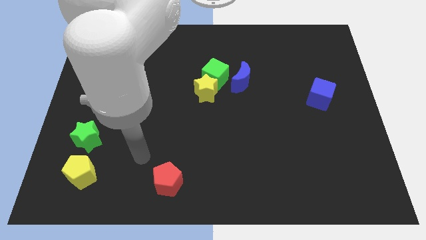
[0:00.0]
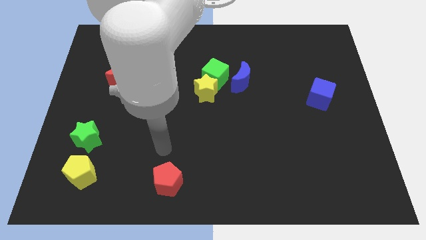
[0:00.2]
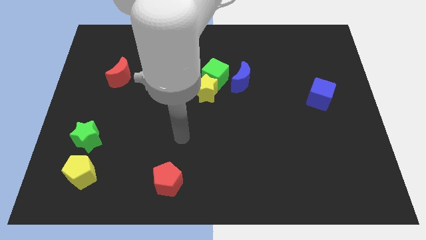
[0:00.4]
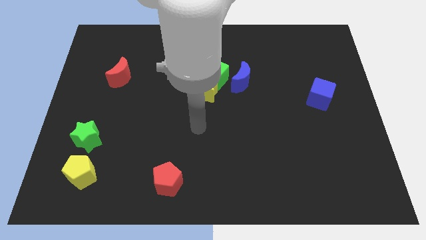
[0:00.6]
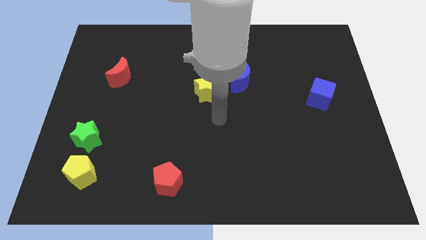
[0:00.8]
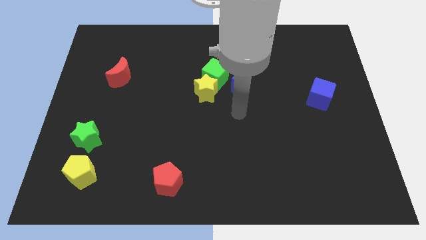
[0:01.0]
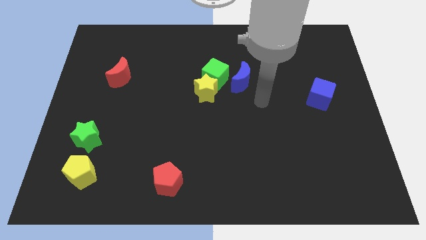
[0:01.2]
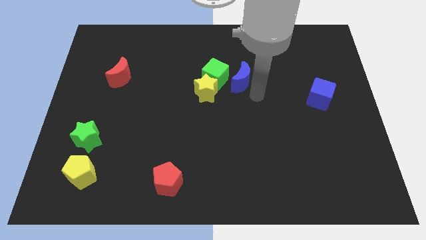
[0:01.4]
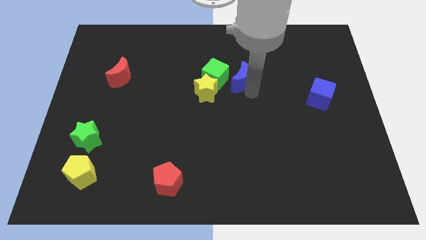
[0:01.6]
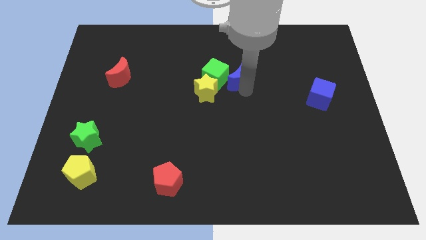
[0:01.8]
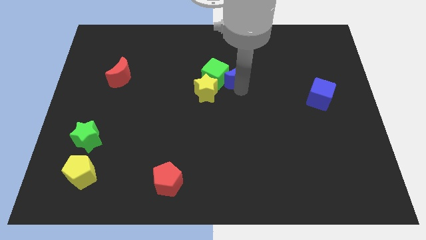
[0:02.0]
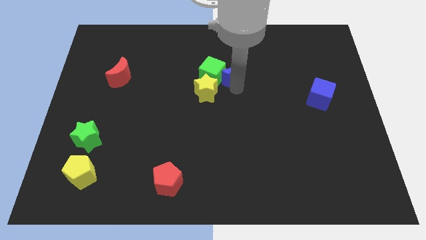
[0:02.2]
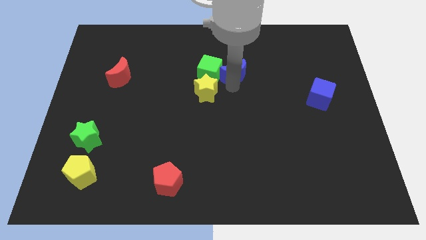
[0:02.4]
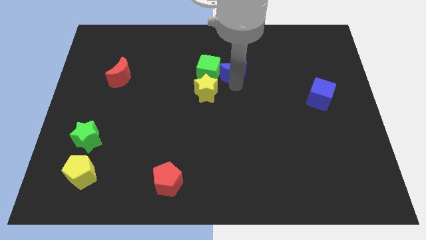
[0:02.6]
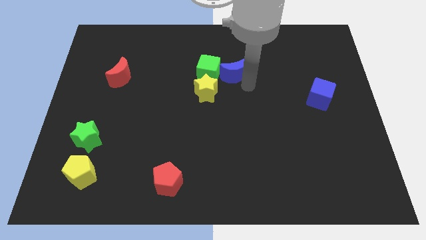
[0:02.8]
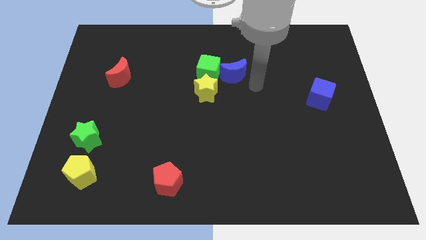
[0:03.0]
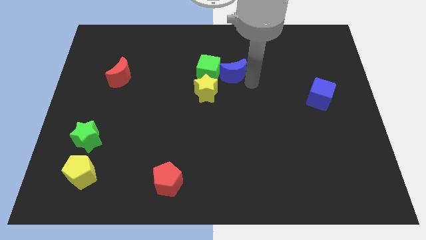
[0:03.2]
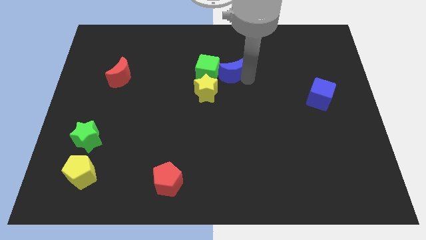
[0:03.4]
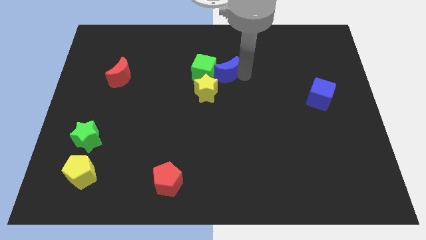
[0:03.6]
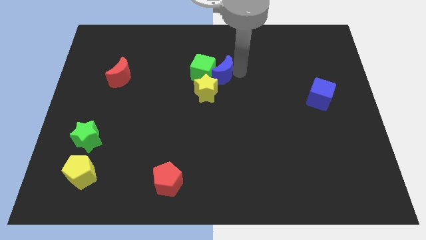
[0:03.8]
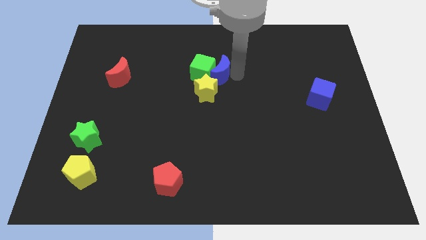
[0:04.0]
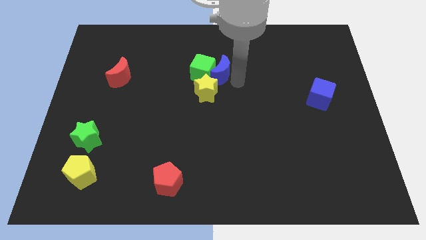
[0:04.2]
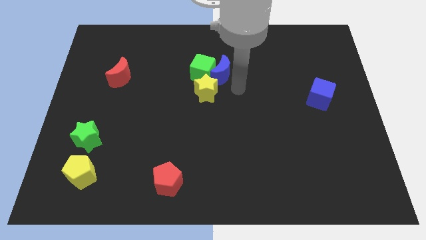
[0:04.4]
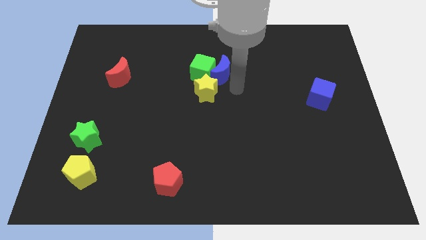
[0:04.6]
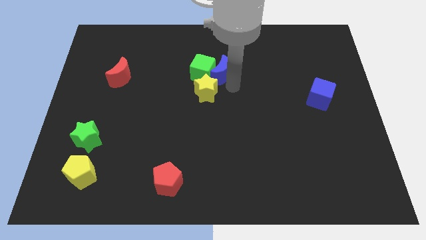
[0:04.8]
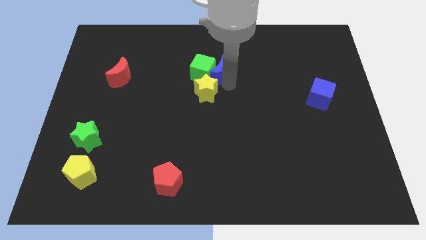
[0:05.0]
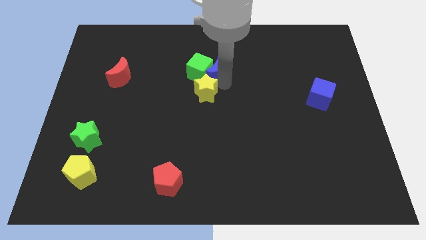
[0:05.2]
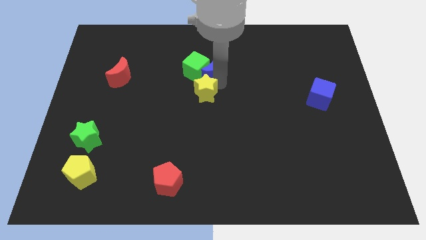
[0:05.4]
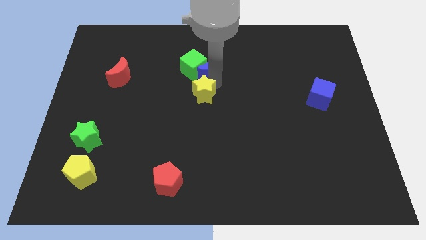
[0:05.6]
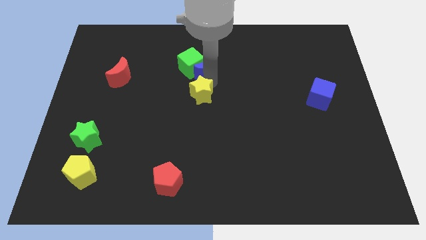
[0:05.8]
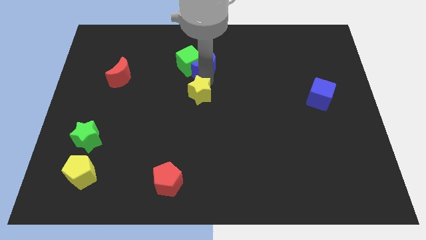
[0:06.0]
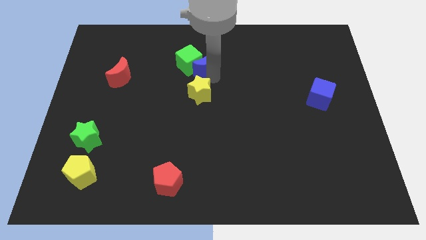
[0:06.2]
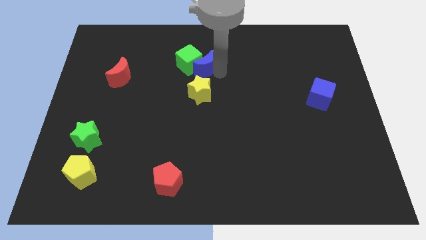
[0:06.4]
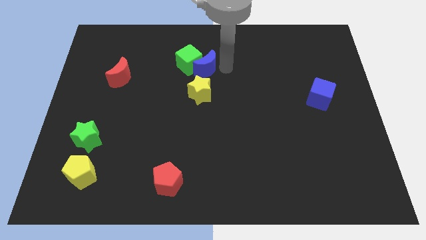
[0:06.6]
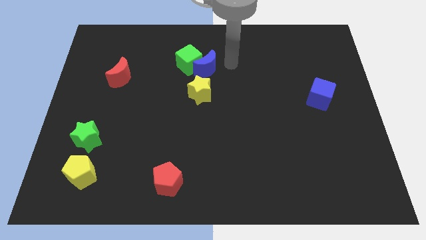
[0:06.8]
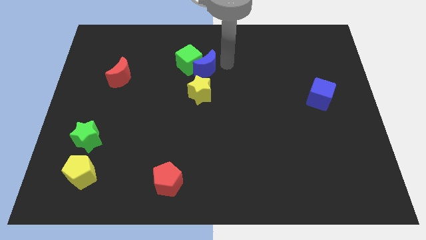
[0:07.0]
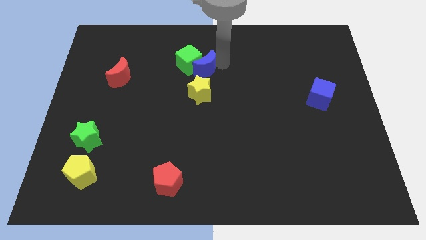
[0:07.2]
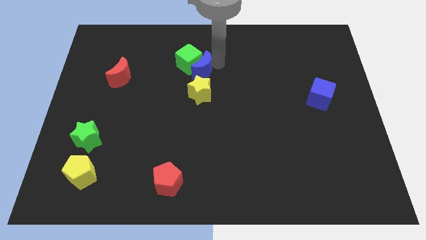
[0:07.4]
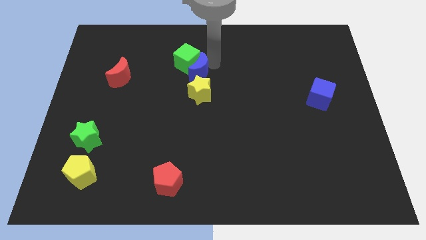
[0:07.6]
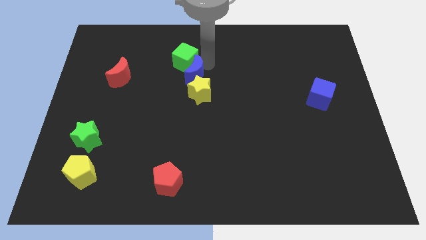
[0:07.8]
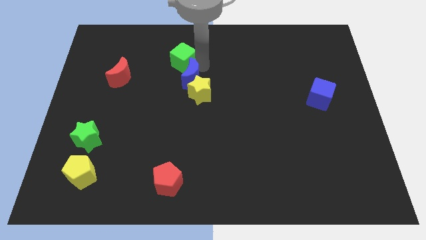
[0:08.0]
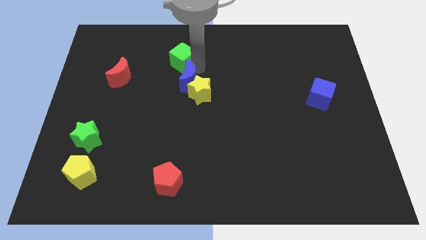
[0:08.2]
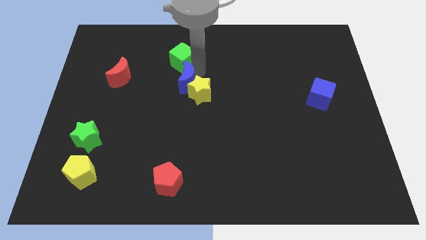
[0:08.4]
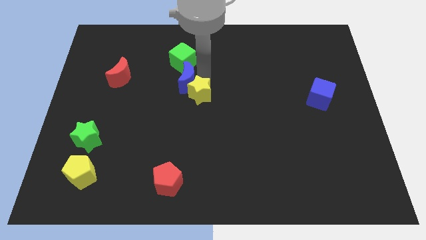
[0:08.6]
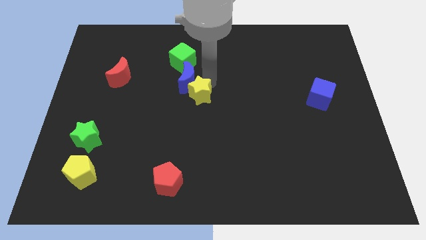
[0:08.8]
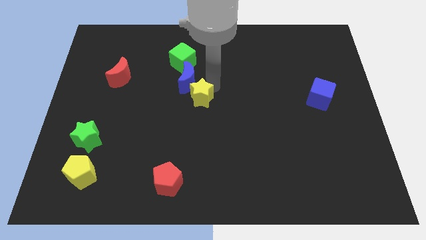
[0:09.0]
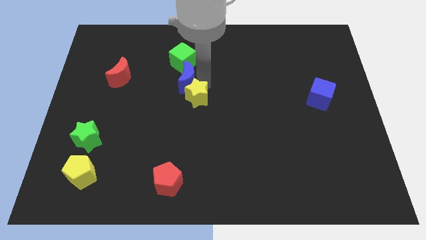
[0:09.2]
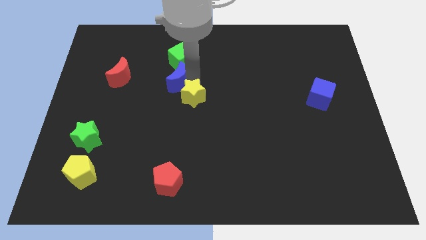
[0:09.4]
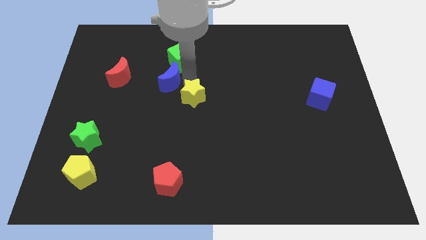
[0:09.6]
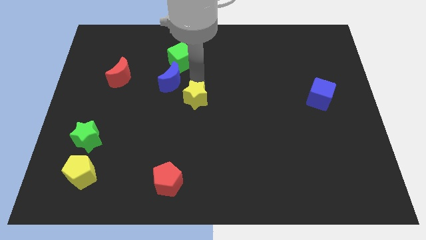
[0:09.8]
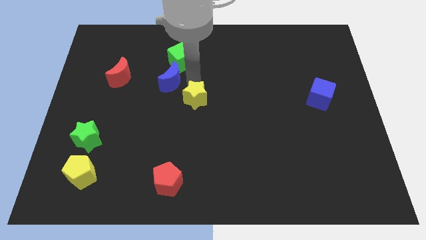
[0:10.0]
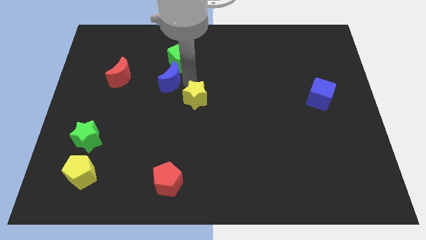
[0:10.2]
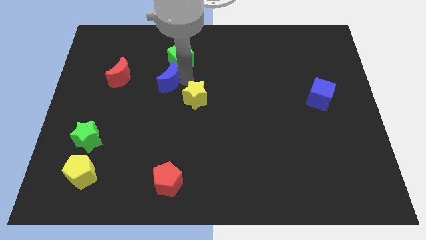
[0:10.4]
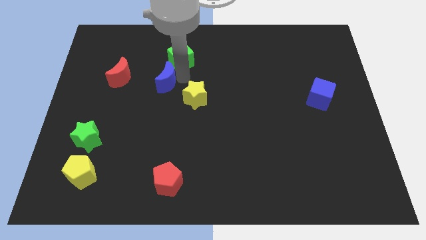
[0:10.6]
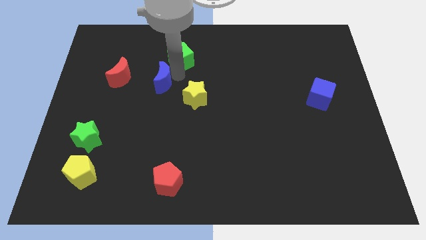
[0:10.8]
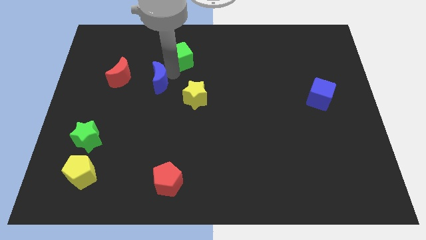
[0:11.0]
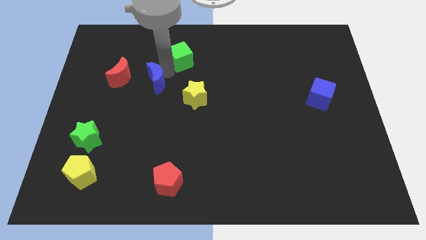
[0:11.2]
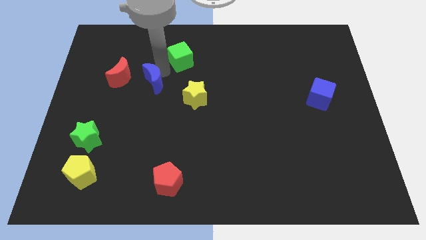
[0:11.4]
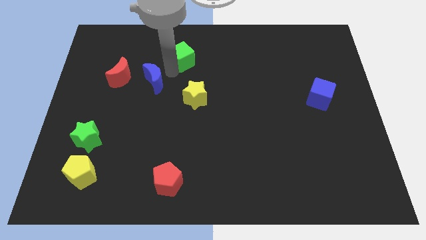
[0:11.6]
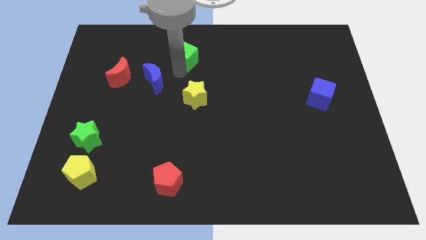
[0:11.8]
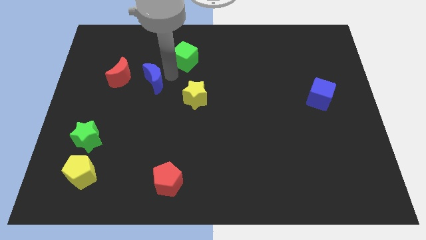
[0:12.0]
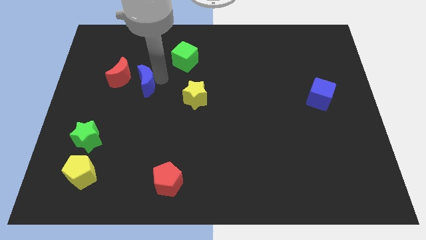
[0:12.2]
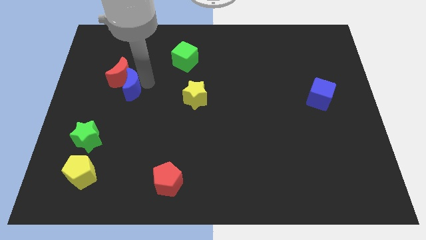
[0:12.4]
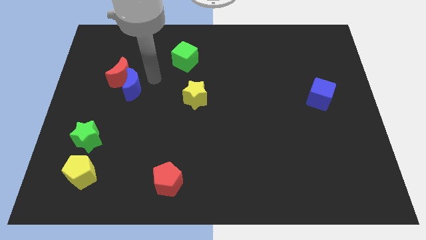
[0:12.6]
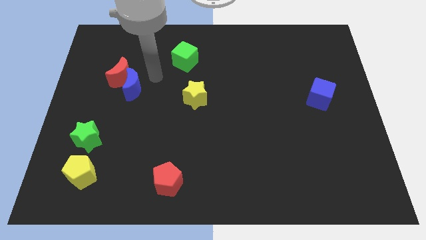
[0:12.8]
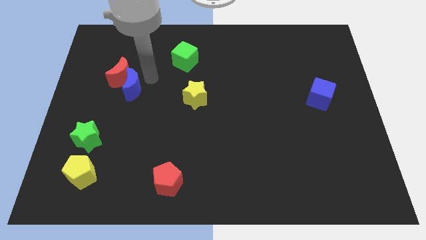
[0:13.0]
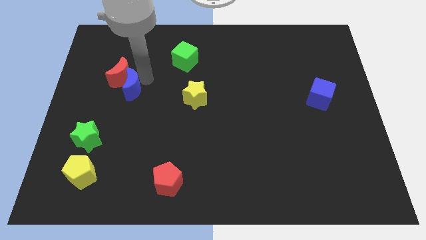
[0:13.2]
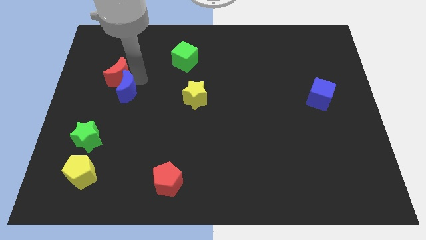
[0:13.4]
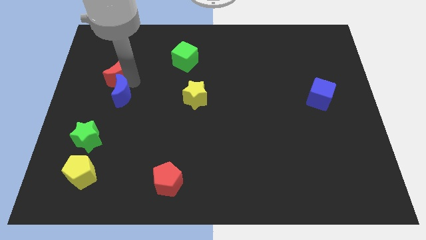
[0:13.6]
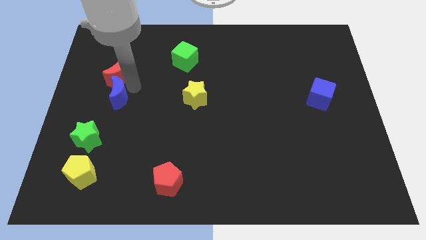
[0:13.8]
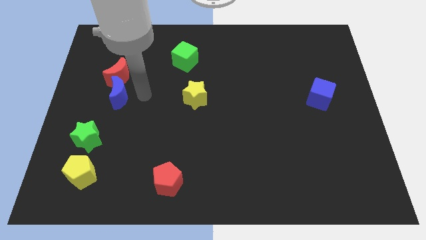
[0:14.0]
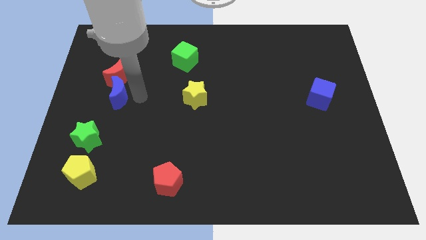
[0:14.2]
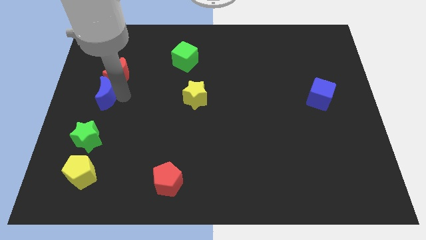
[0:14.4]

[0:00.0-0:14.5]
slide the blue moon to the left side of the board

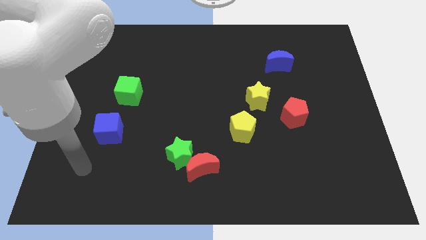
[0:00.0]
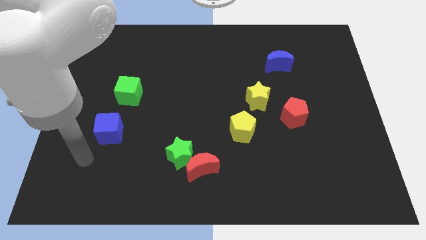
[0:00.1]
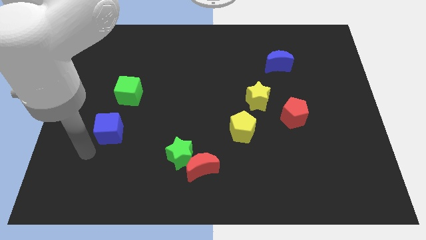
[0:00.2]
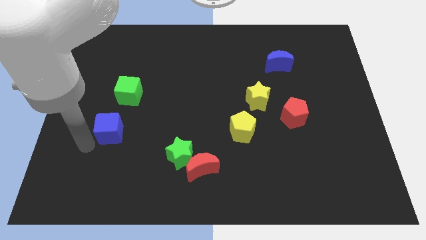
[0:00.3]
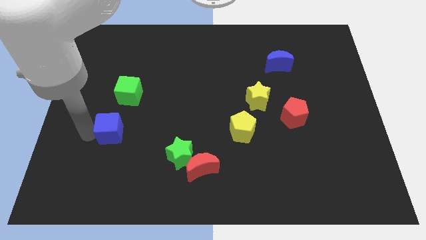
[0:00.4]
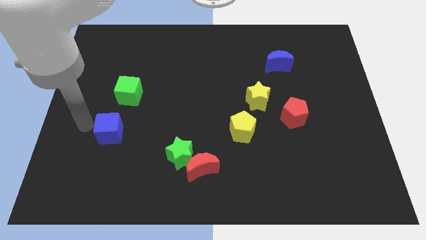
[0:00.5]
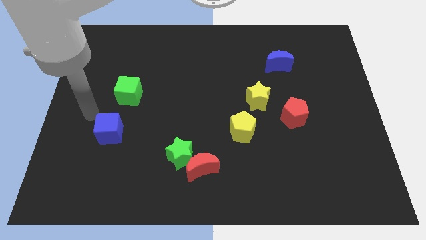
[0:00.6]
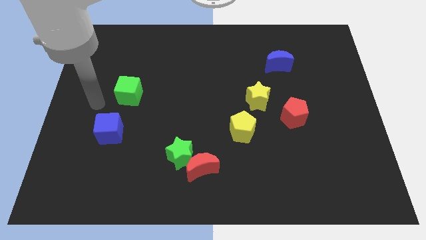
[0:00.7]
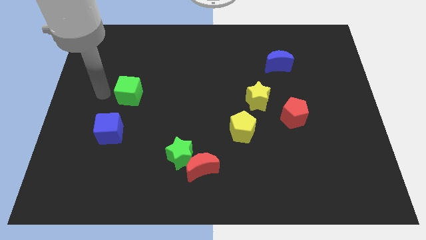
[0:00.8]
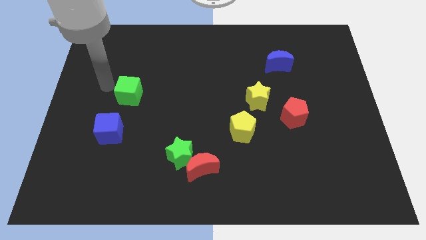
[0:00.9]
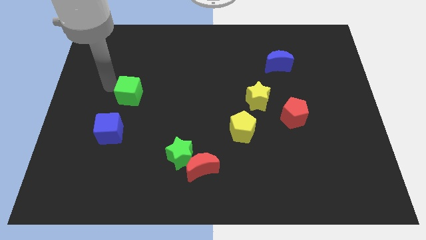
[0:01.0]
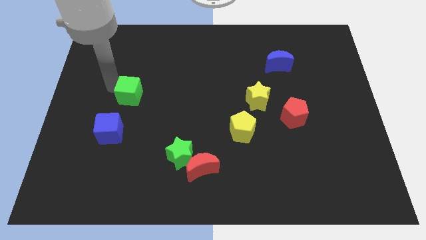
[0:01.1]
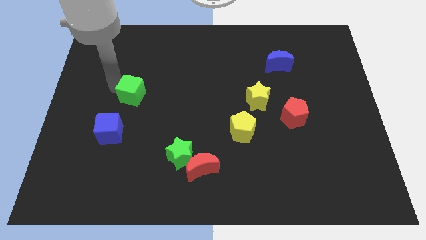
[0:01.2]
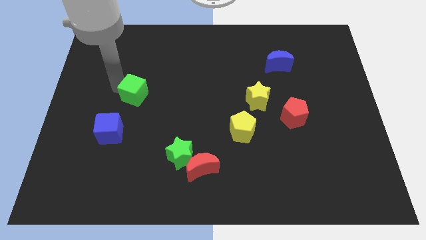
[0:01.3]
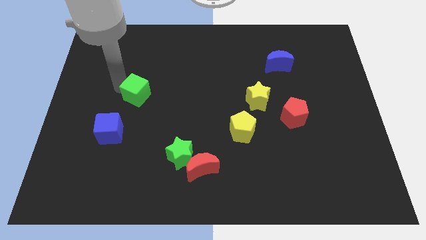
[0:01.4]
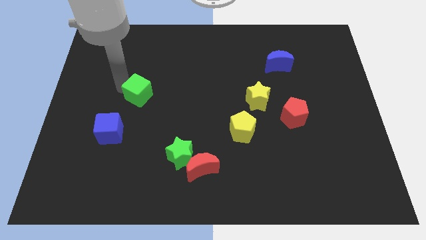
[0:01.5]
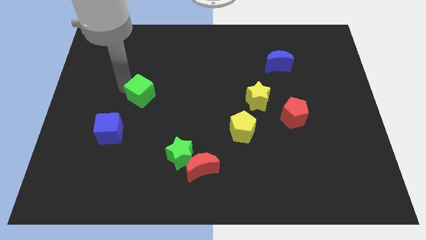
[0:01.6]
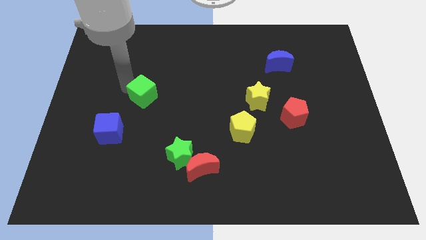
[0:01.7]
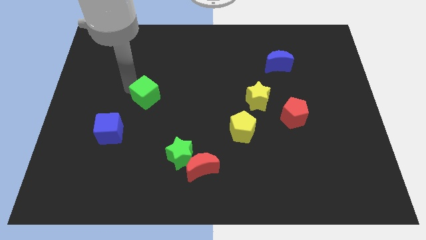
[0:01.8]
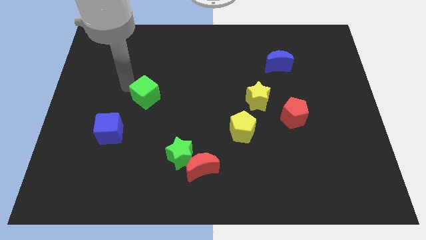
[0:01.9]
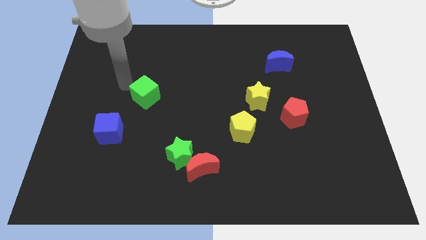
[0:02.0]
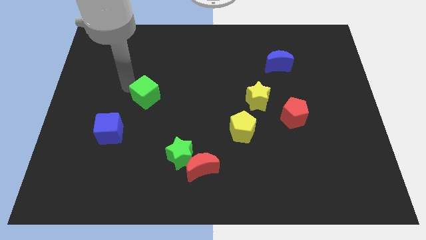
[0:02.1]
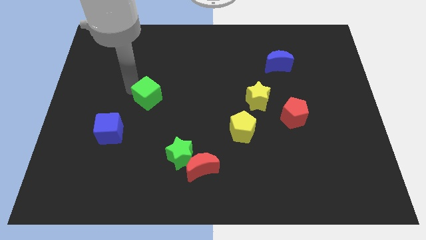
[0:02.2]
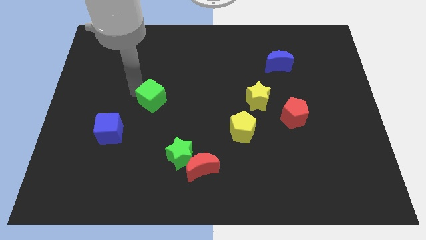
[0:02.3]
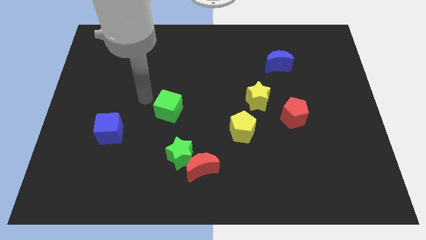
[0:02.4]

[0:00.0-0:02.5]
move the green cube to the middle
